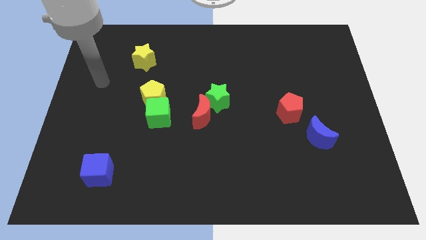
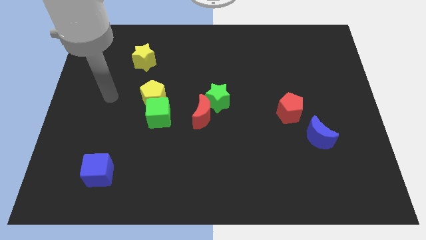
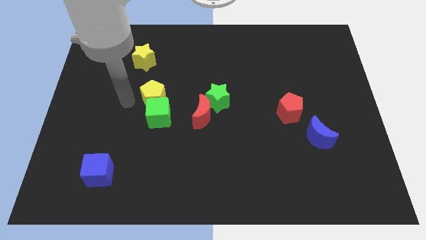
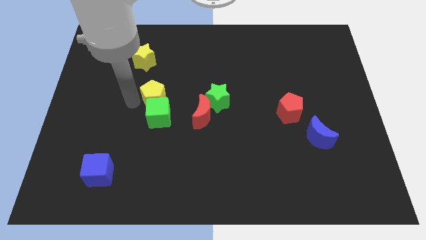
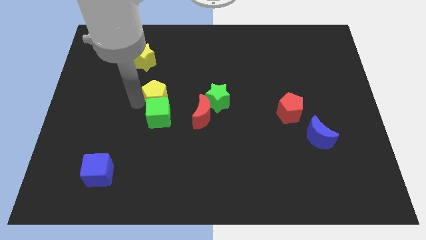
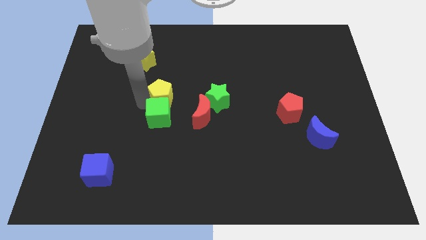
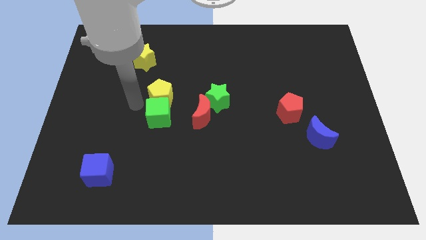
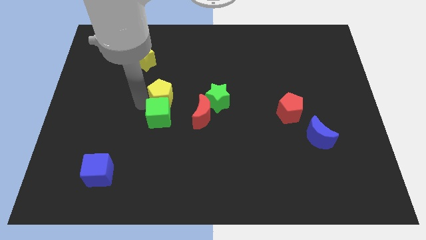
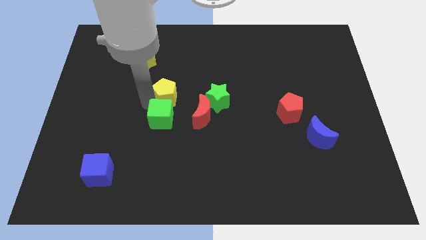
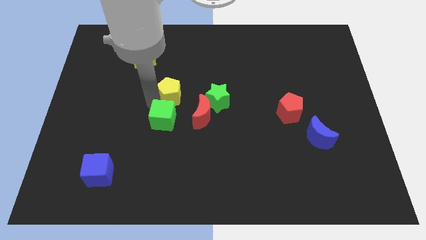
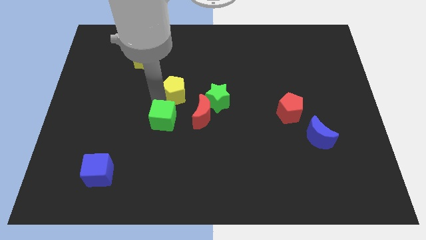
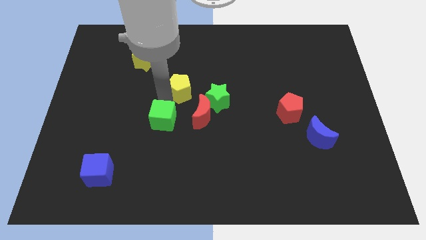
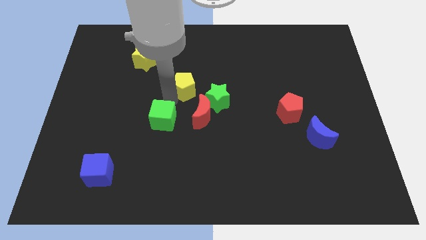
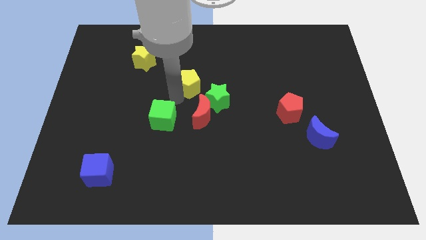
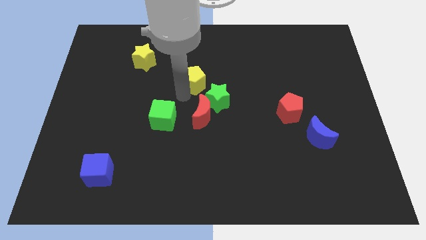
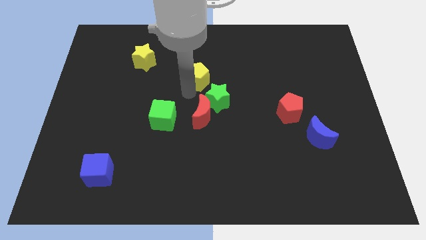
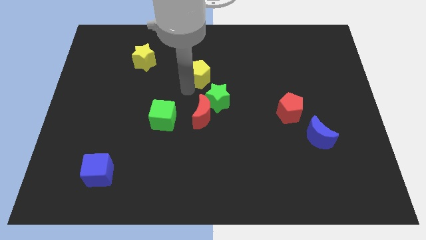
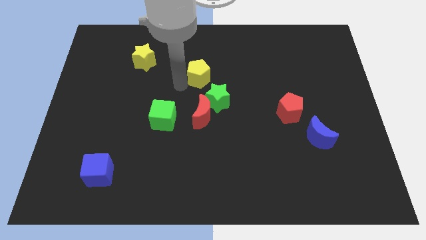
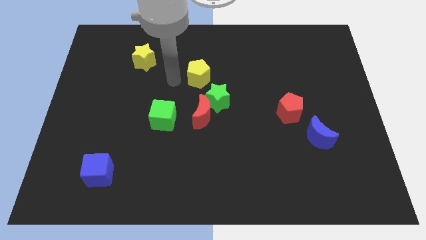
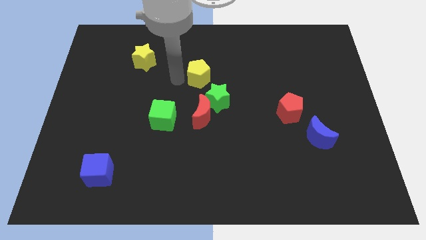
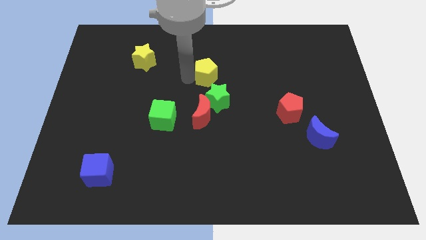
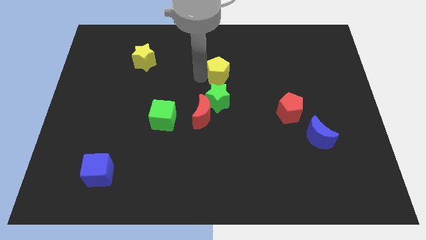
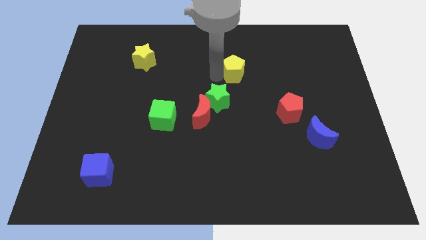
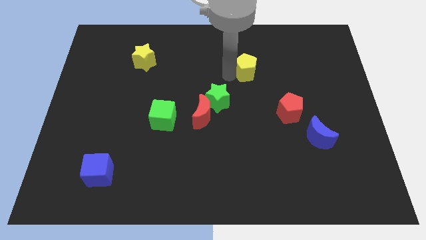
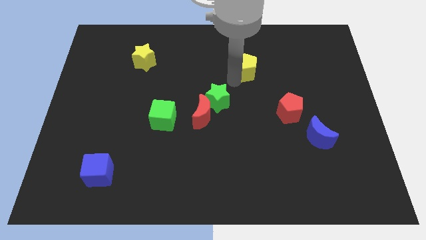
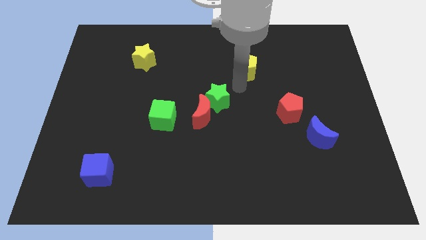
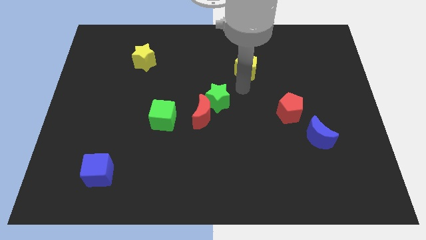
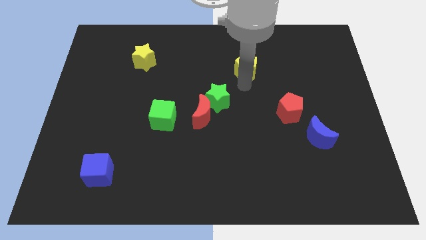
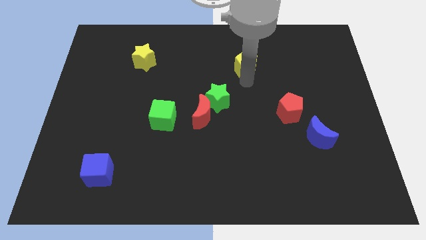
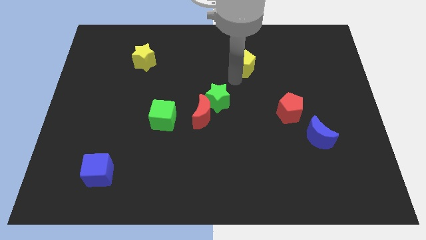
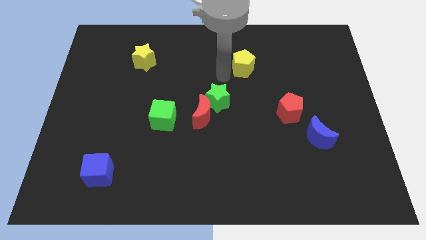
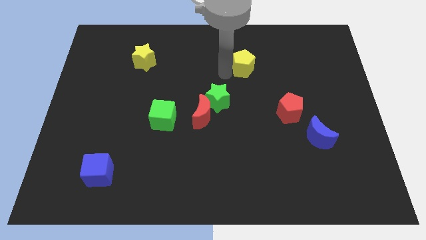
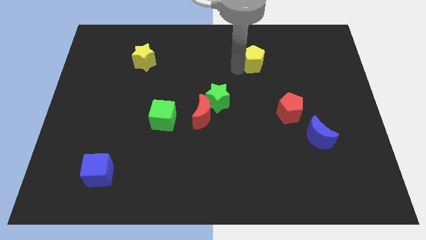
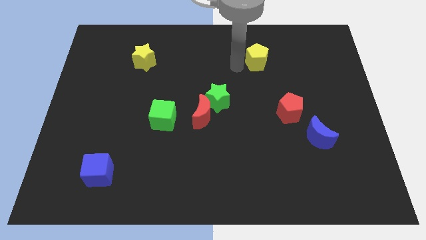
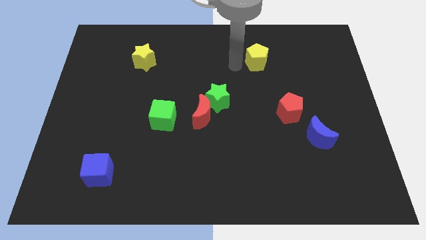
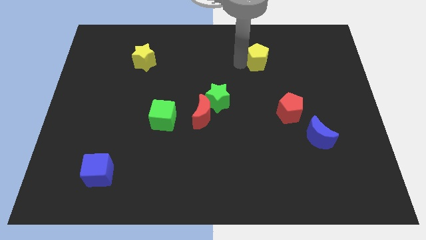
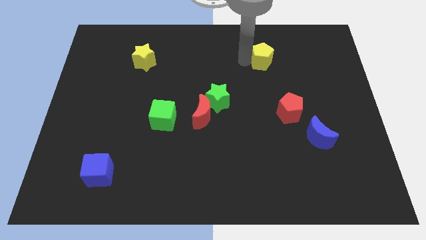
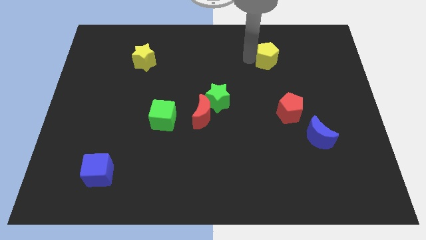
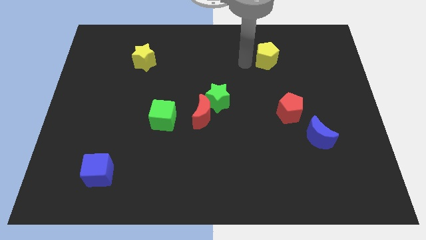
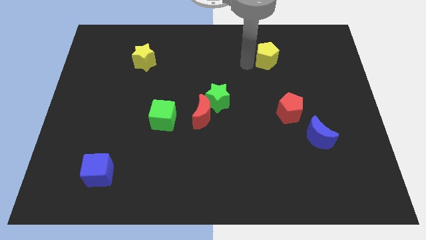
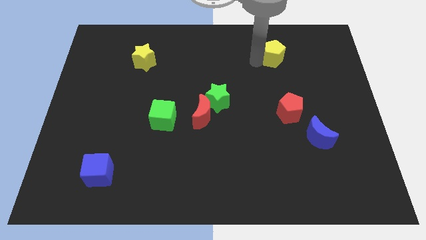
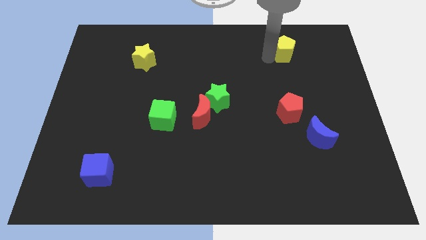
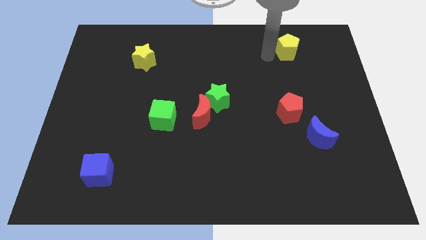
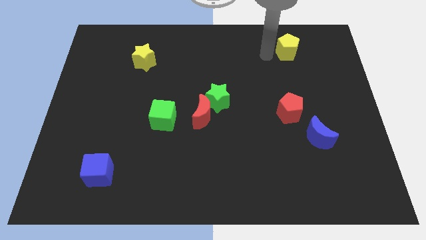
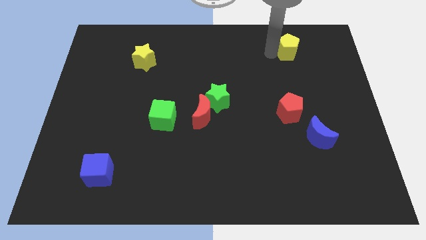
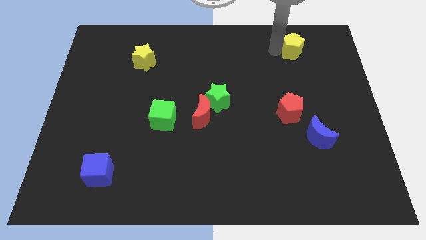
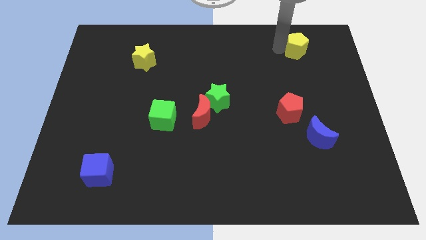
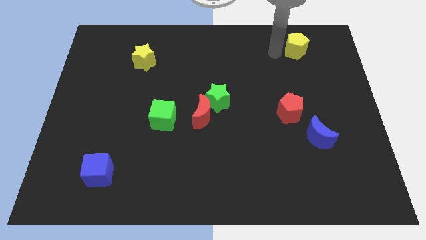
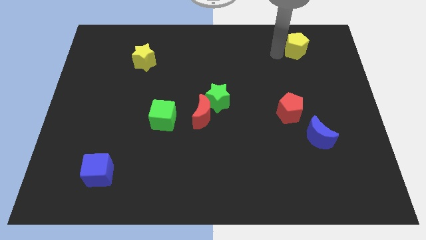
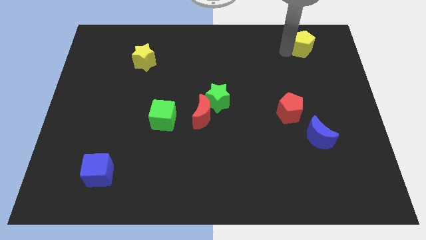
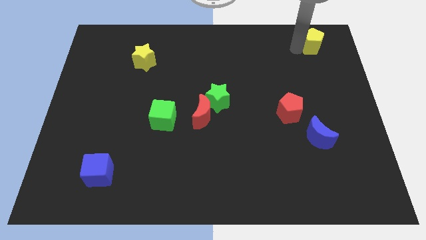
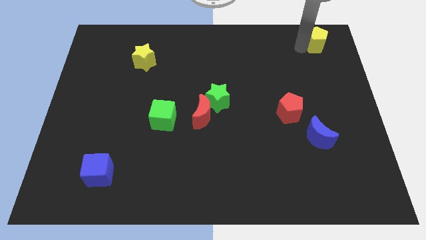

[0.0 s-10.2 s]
move the yellow pentagon to the upper right corner
